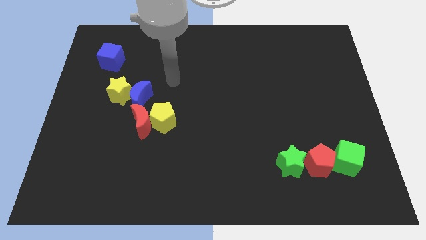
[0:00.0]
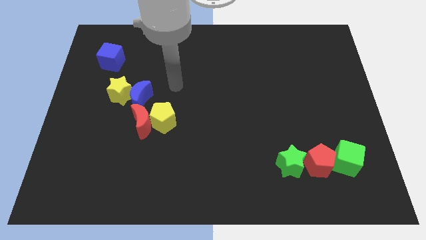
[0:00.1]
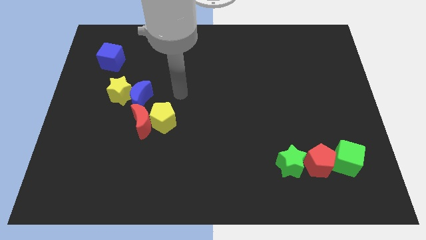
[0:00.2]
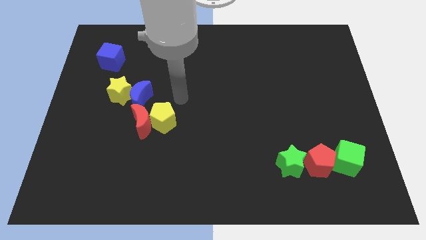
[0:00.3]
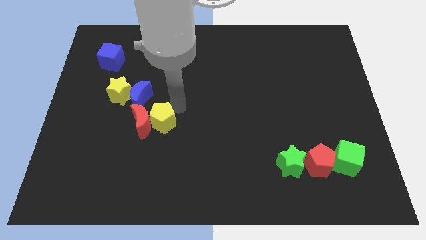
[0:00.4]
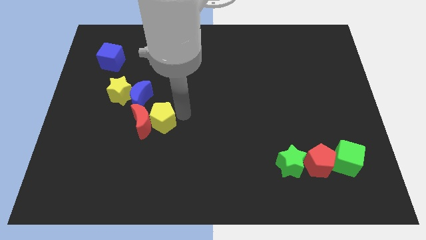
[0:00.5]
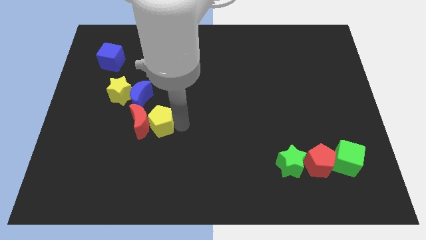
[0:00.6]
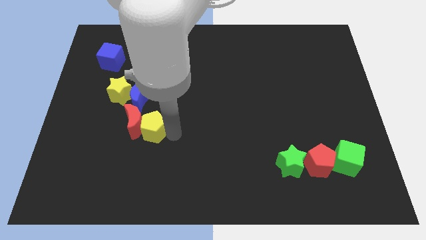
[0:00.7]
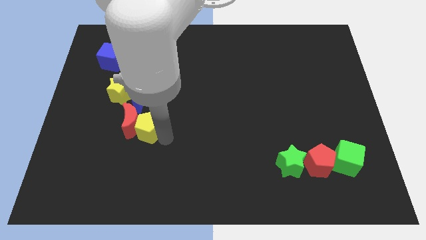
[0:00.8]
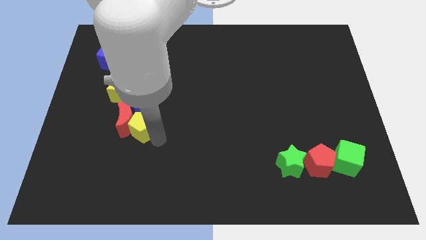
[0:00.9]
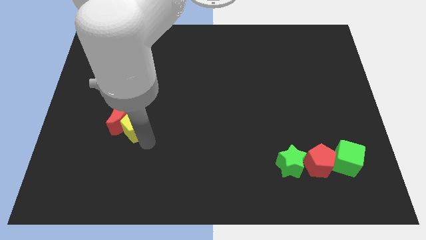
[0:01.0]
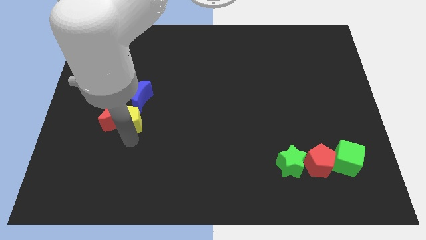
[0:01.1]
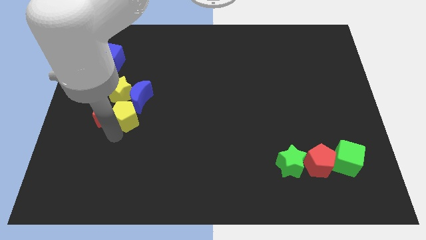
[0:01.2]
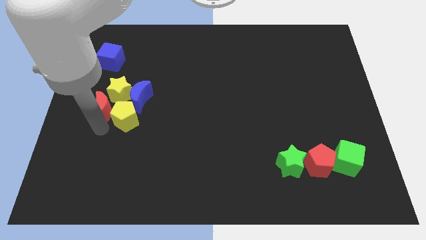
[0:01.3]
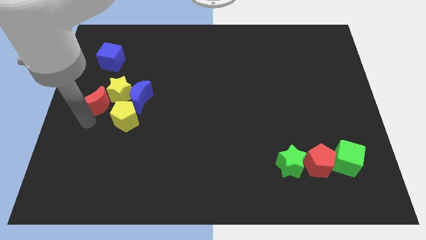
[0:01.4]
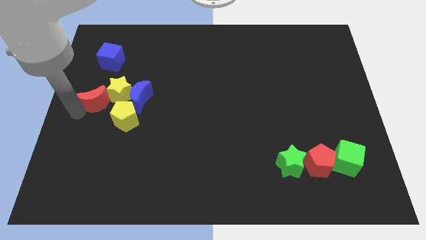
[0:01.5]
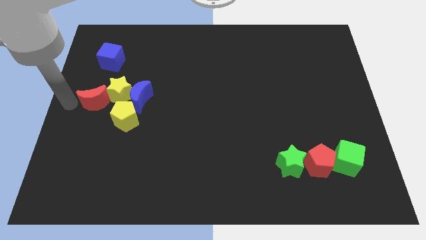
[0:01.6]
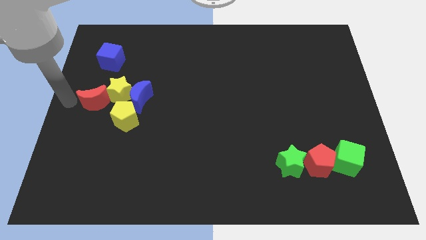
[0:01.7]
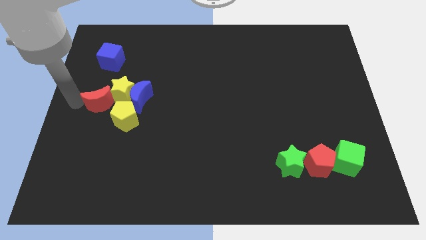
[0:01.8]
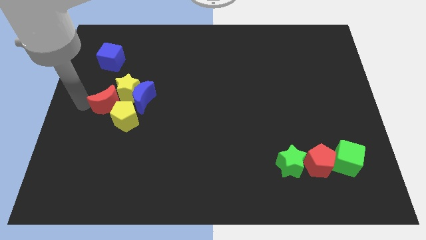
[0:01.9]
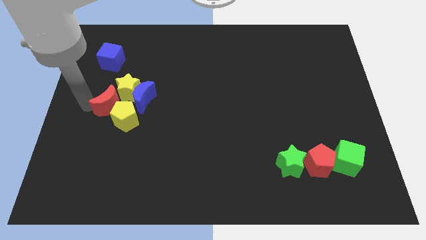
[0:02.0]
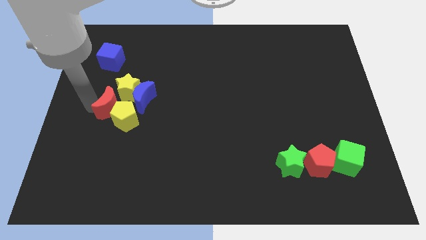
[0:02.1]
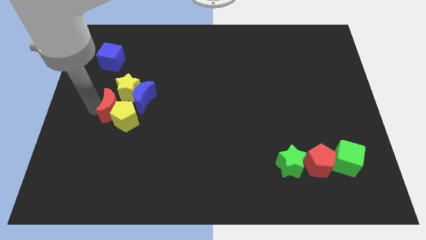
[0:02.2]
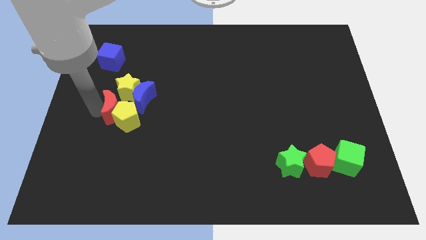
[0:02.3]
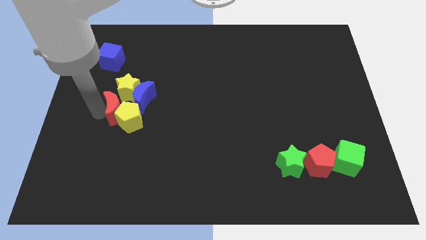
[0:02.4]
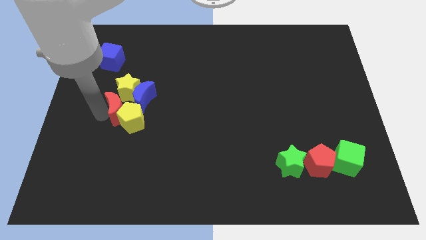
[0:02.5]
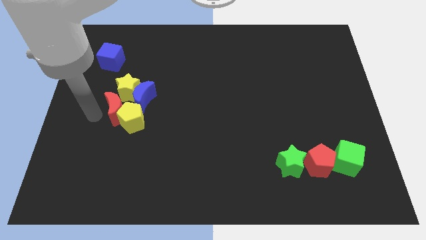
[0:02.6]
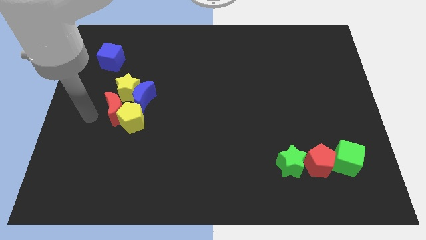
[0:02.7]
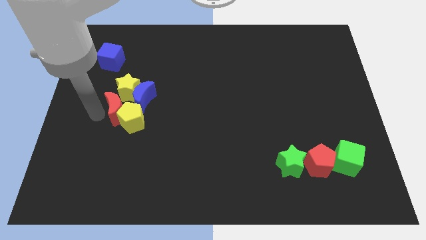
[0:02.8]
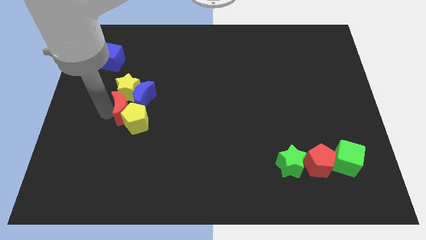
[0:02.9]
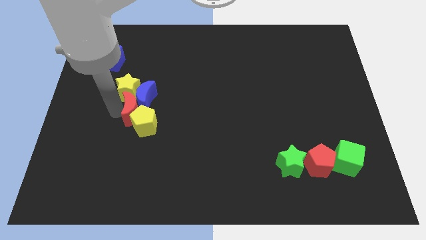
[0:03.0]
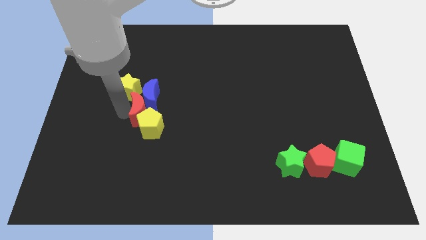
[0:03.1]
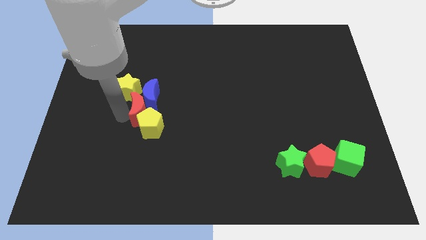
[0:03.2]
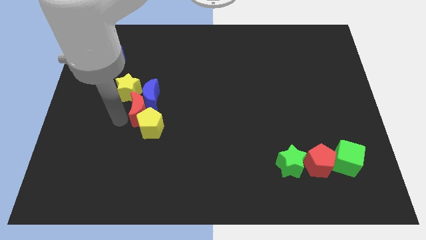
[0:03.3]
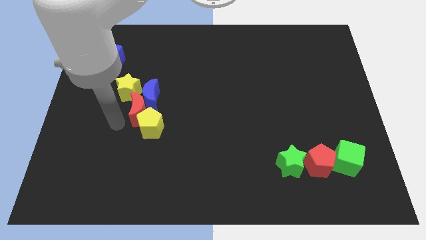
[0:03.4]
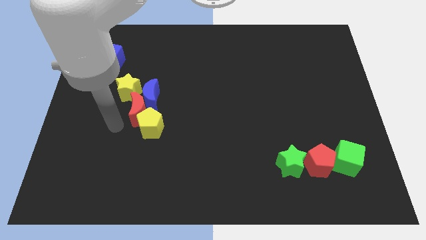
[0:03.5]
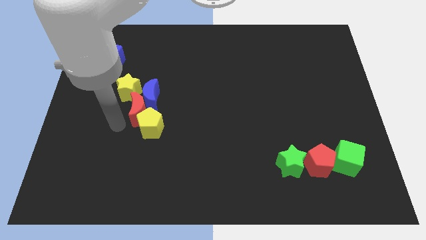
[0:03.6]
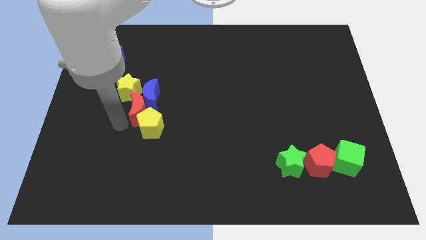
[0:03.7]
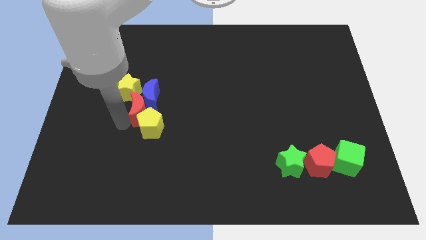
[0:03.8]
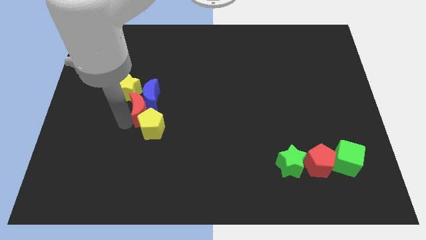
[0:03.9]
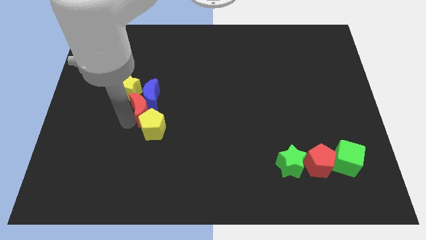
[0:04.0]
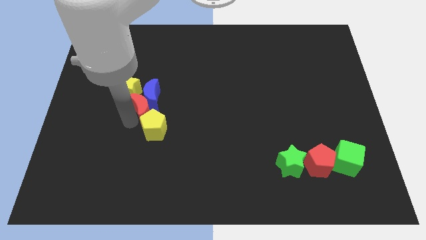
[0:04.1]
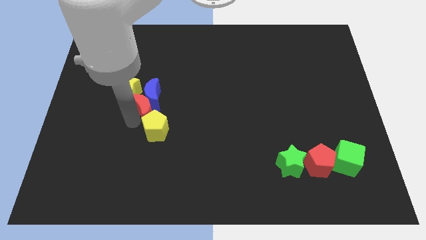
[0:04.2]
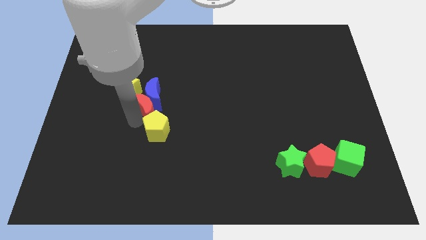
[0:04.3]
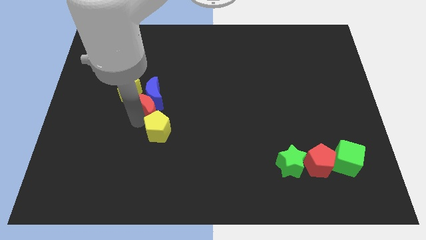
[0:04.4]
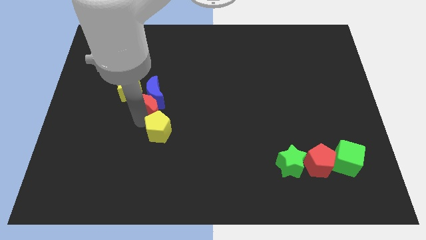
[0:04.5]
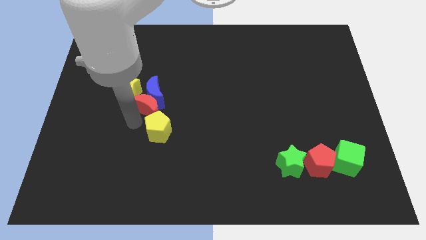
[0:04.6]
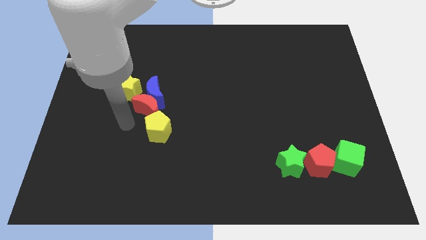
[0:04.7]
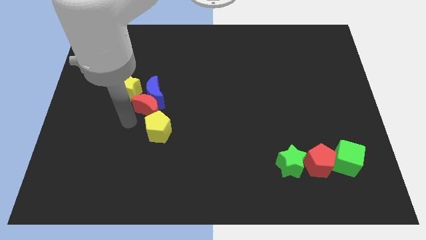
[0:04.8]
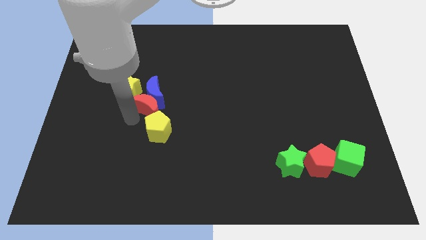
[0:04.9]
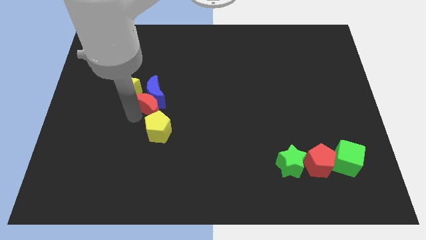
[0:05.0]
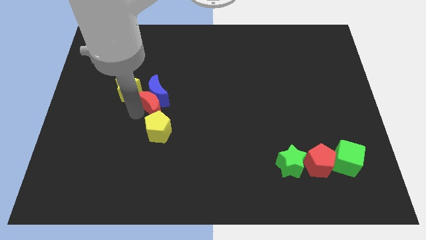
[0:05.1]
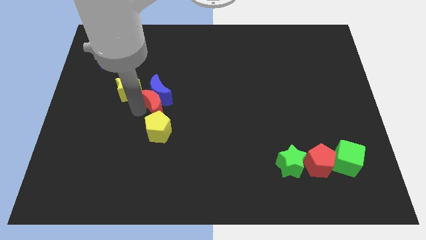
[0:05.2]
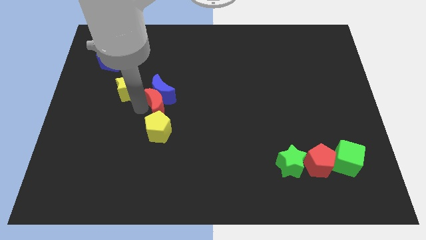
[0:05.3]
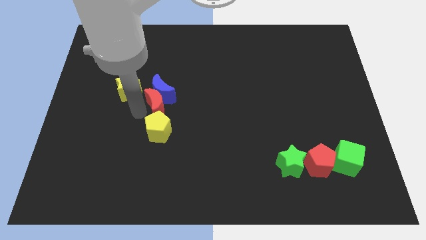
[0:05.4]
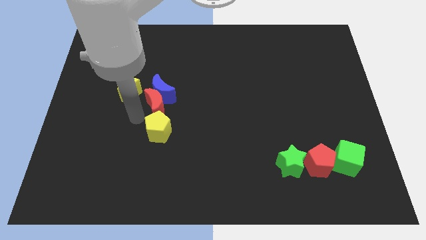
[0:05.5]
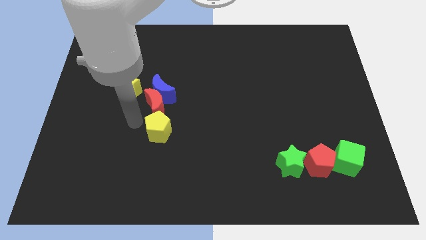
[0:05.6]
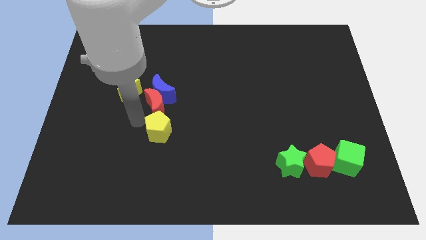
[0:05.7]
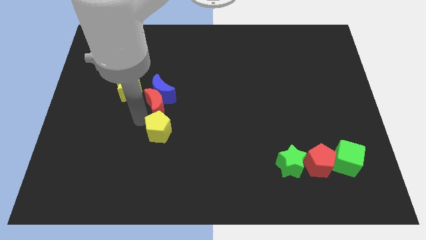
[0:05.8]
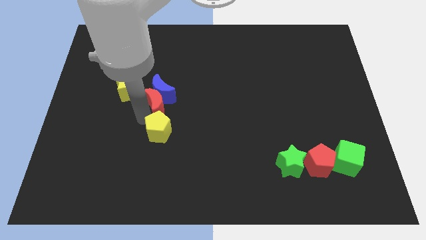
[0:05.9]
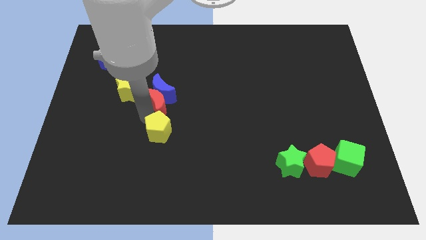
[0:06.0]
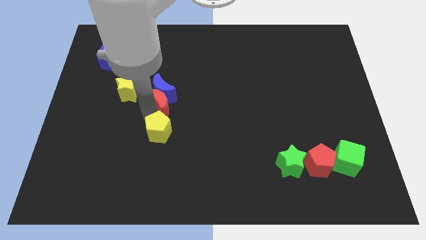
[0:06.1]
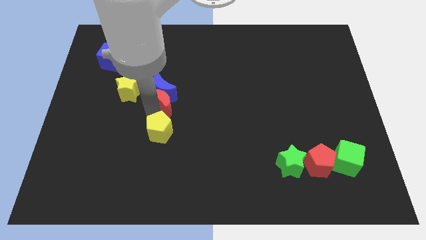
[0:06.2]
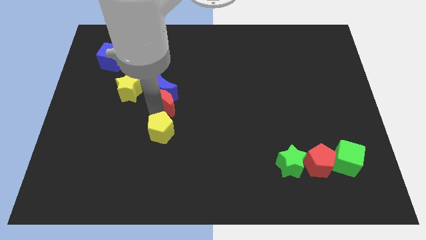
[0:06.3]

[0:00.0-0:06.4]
push the red moon upwards and then right a little bit

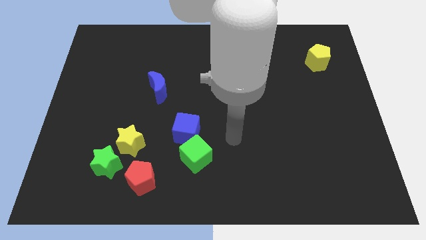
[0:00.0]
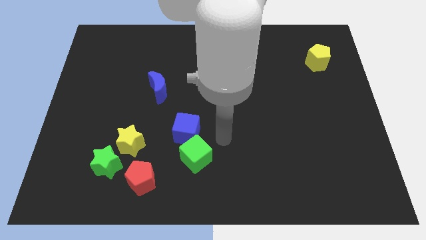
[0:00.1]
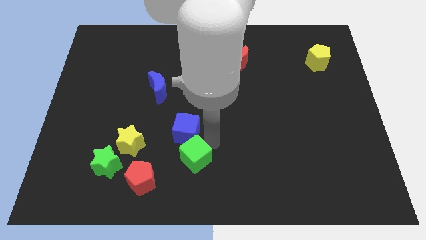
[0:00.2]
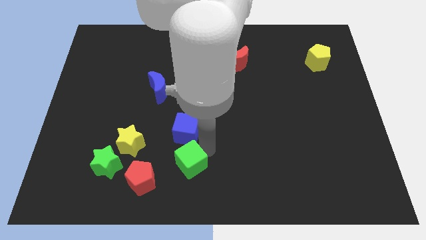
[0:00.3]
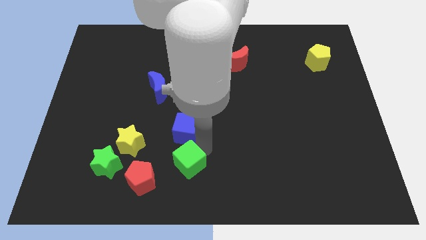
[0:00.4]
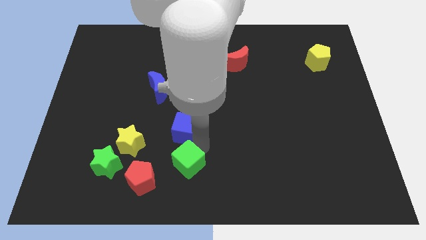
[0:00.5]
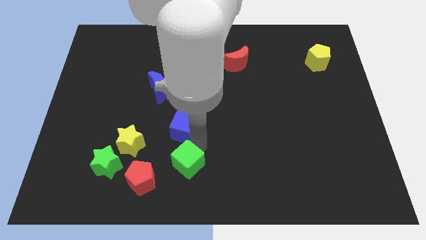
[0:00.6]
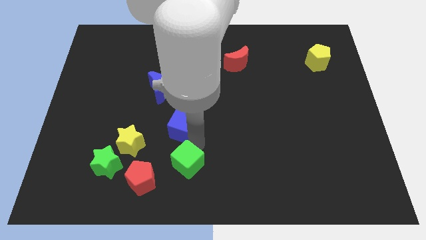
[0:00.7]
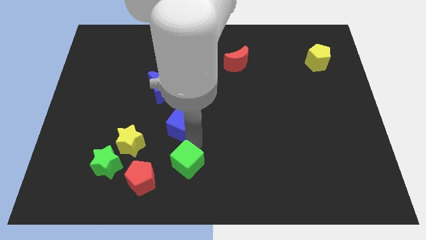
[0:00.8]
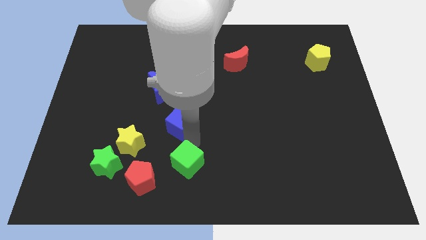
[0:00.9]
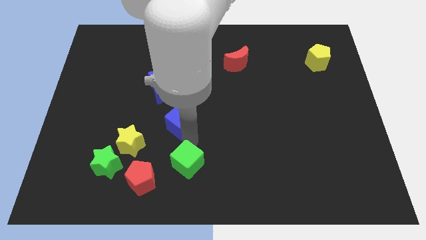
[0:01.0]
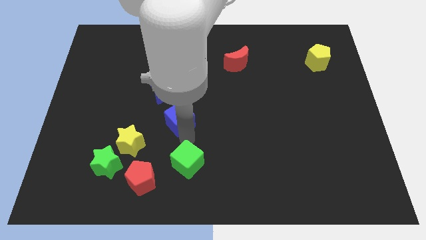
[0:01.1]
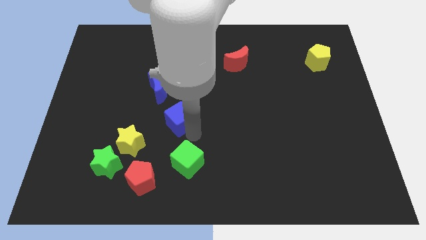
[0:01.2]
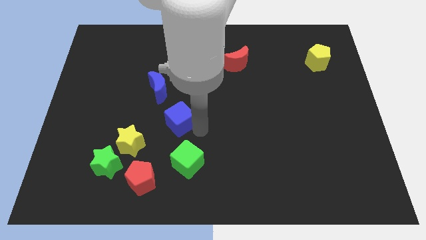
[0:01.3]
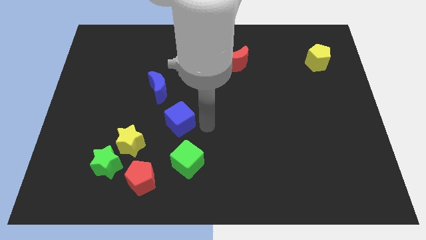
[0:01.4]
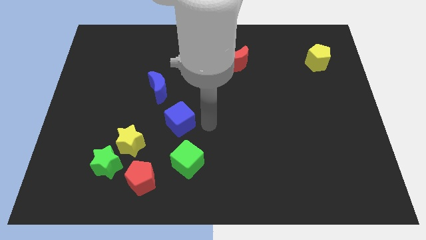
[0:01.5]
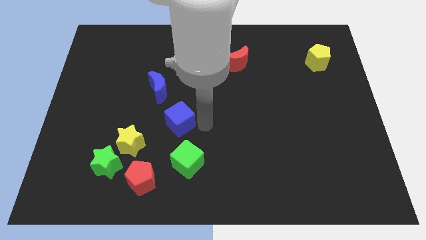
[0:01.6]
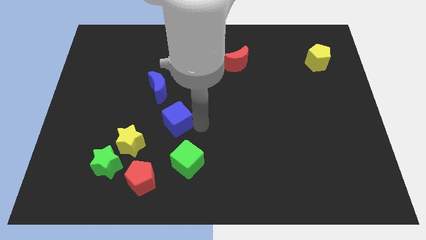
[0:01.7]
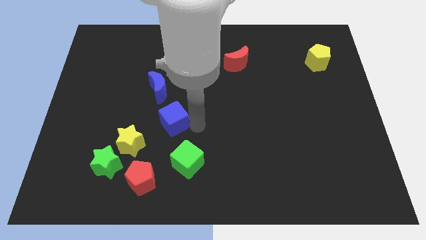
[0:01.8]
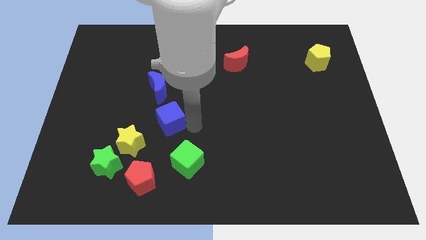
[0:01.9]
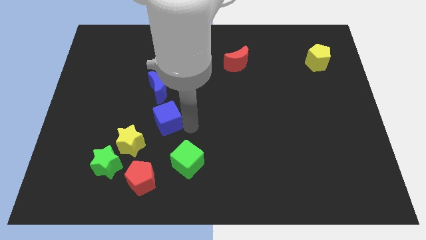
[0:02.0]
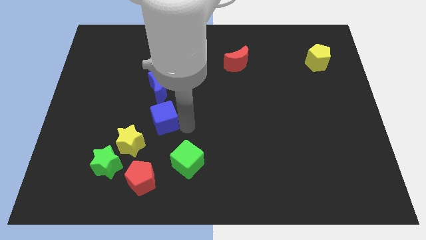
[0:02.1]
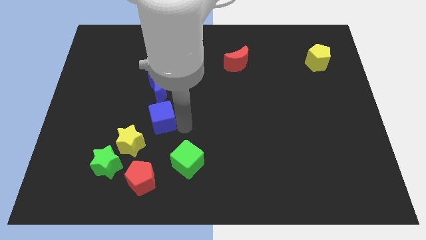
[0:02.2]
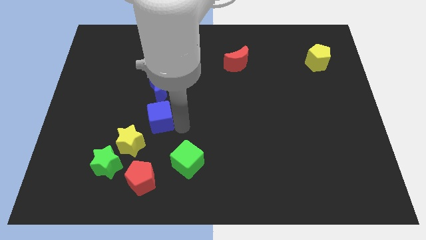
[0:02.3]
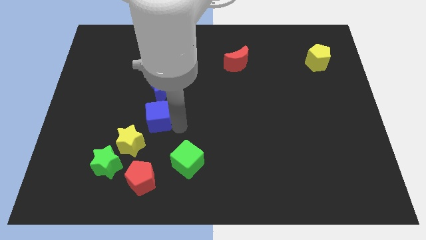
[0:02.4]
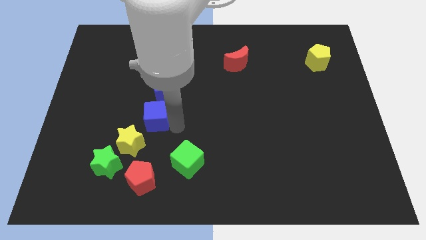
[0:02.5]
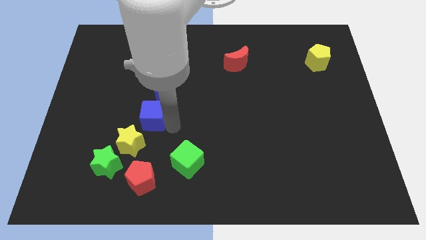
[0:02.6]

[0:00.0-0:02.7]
slightly slide the blue cube to the left
